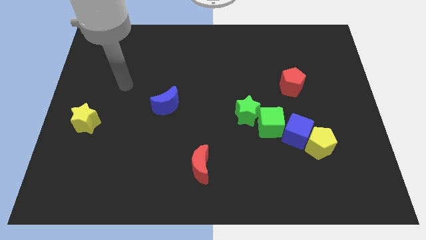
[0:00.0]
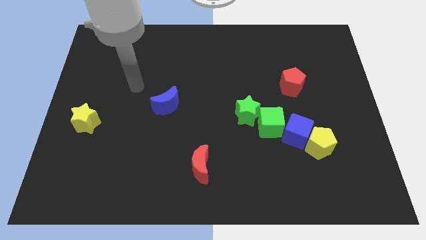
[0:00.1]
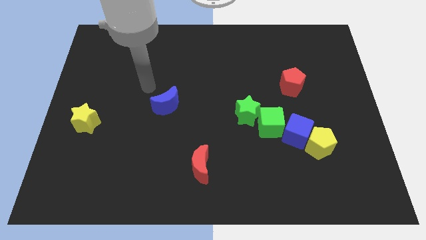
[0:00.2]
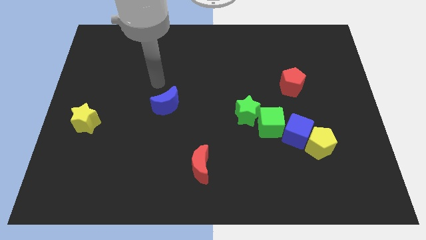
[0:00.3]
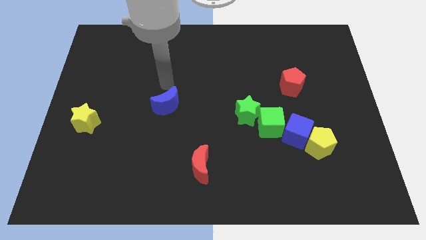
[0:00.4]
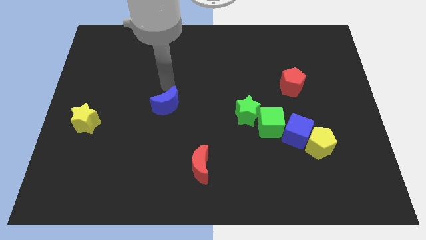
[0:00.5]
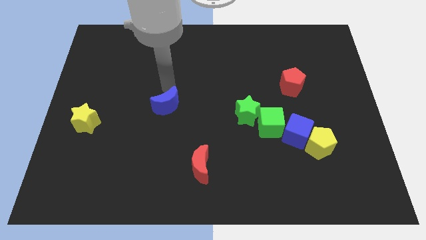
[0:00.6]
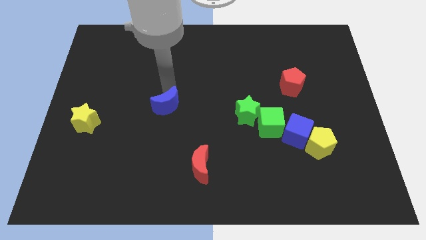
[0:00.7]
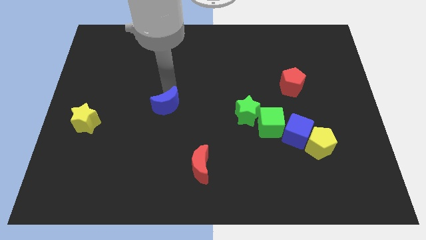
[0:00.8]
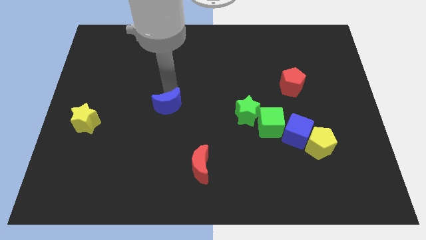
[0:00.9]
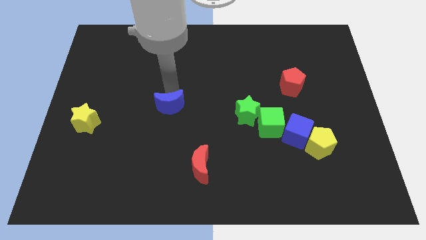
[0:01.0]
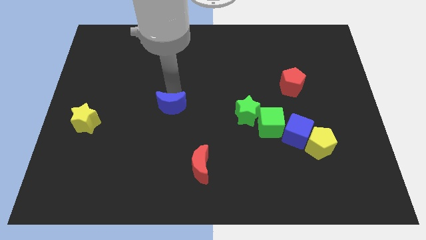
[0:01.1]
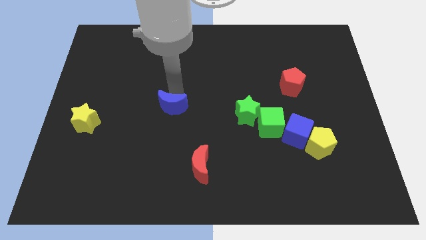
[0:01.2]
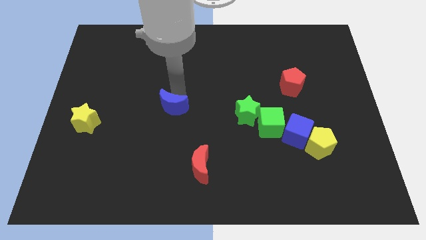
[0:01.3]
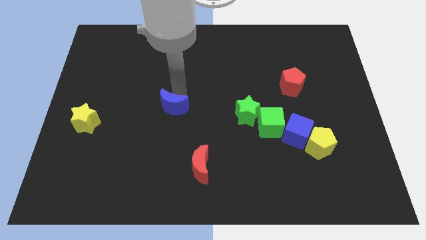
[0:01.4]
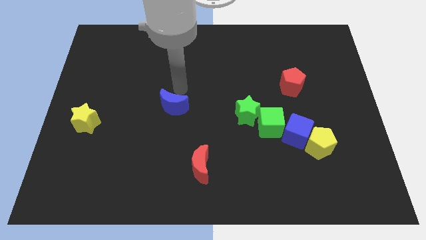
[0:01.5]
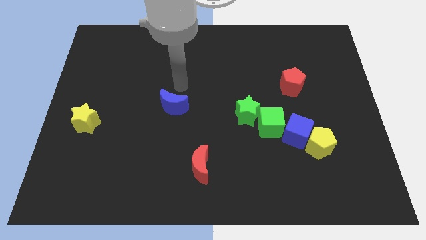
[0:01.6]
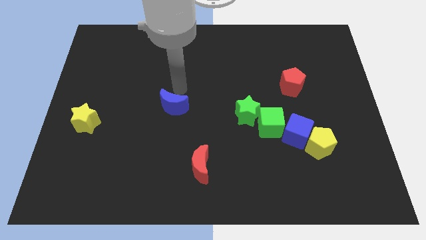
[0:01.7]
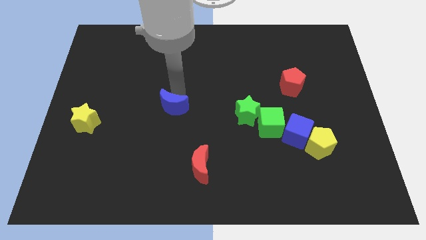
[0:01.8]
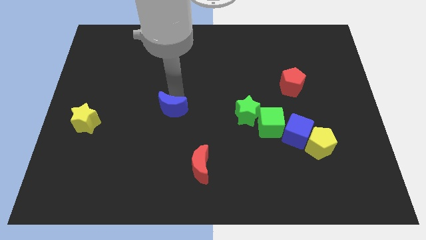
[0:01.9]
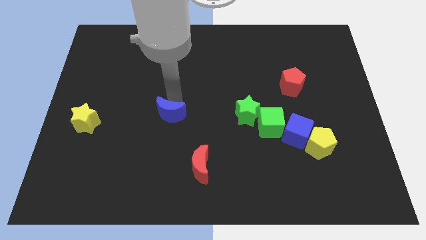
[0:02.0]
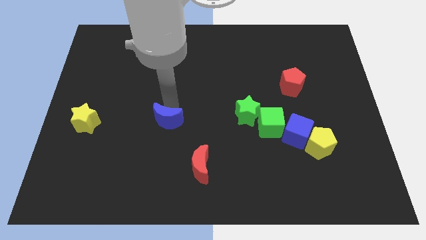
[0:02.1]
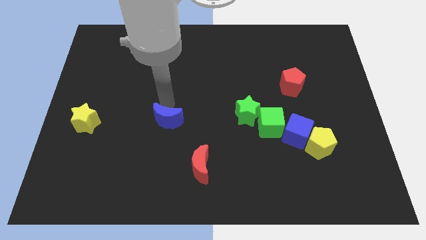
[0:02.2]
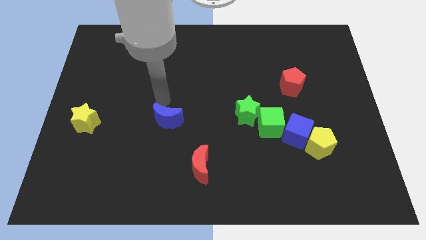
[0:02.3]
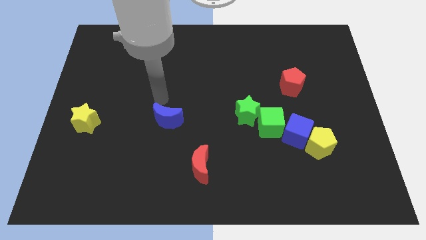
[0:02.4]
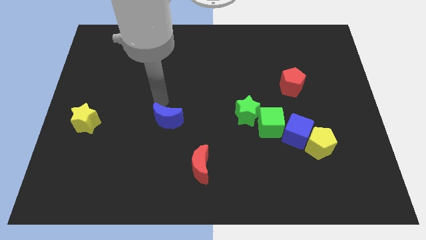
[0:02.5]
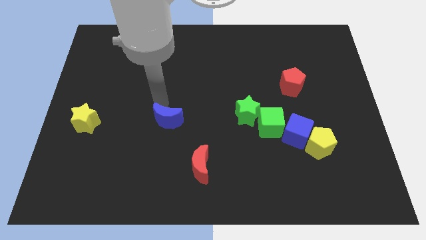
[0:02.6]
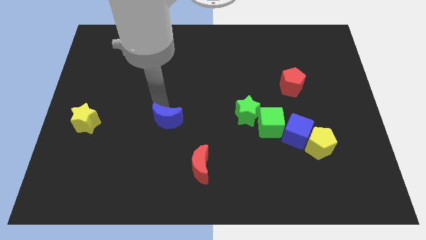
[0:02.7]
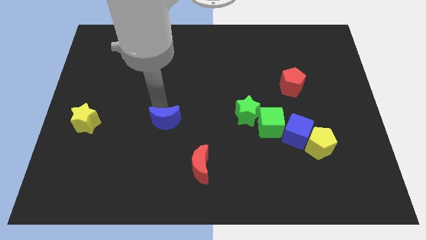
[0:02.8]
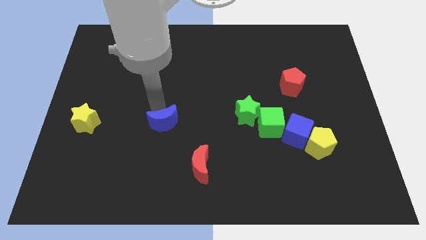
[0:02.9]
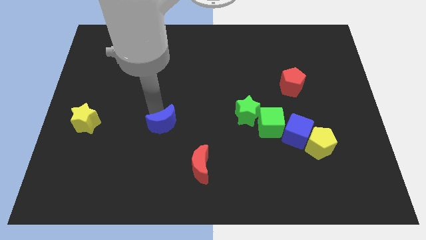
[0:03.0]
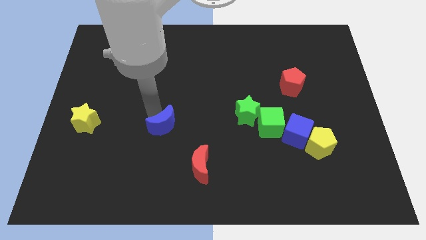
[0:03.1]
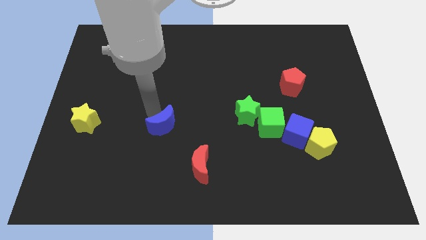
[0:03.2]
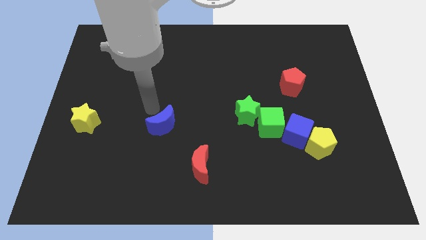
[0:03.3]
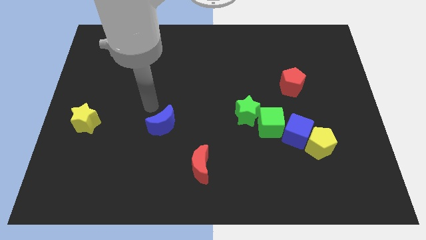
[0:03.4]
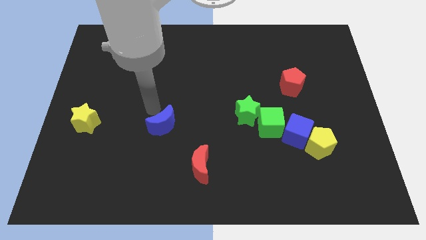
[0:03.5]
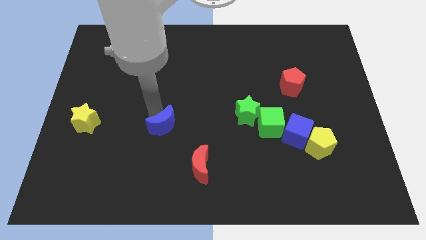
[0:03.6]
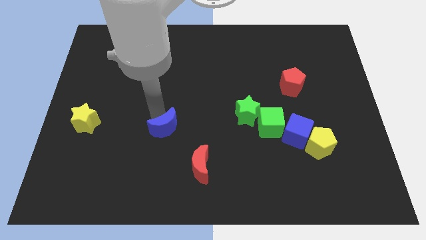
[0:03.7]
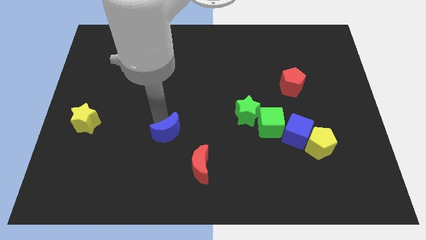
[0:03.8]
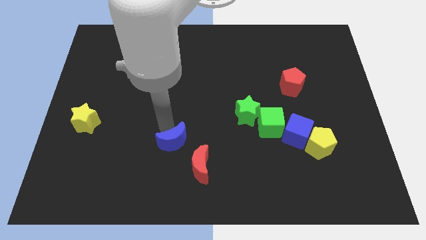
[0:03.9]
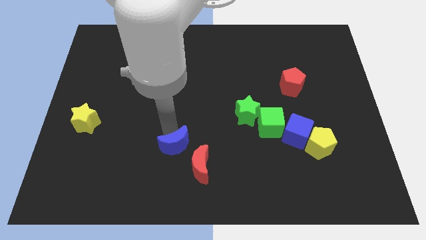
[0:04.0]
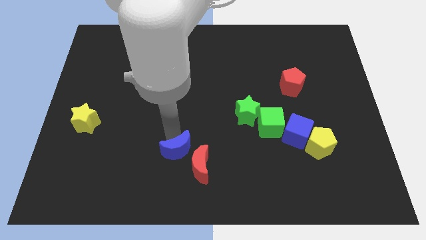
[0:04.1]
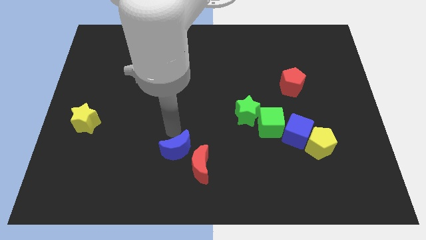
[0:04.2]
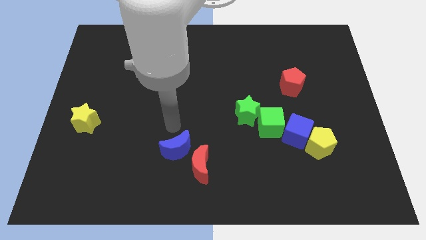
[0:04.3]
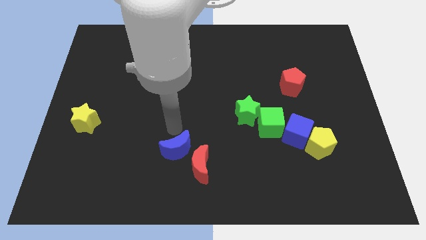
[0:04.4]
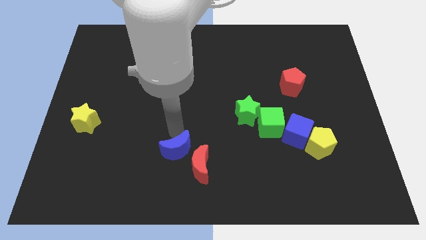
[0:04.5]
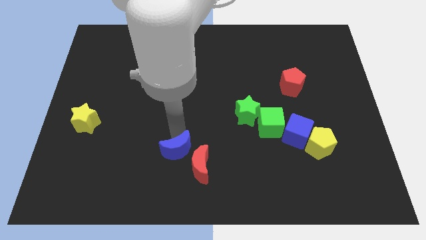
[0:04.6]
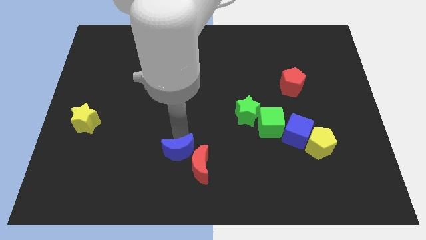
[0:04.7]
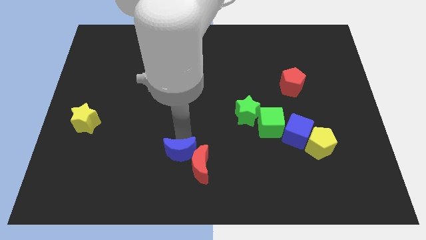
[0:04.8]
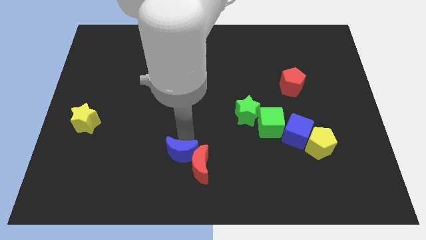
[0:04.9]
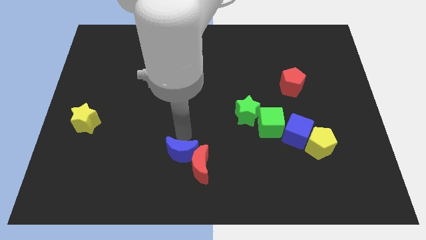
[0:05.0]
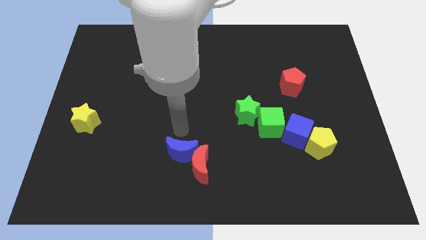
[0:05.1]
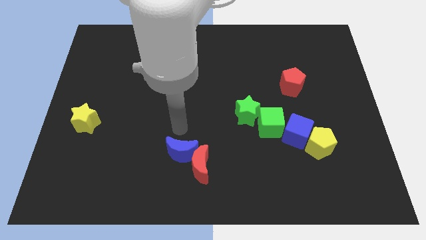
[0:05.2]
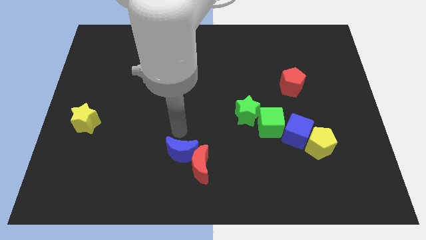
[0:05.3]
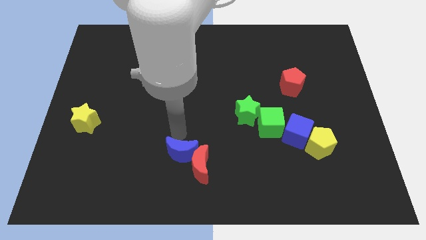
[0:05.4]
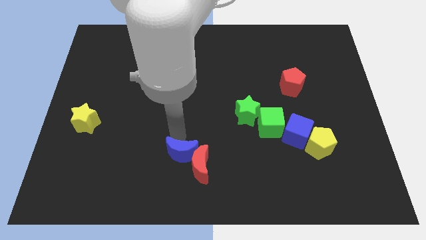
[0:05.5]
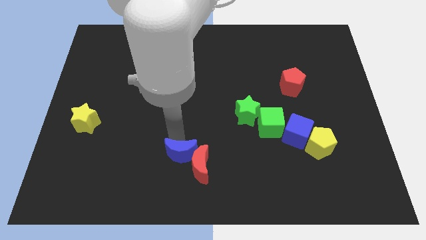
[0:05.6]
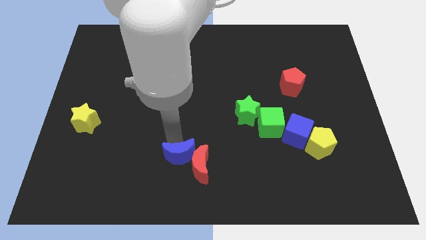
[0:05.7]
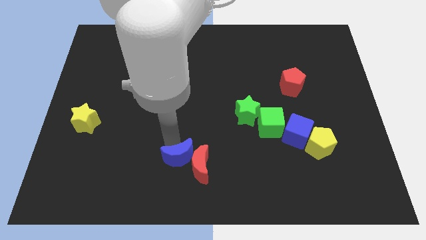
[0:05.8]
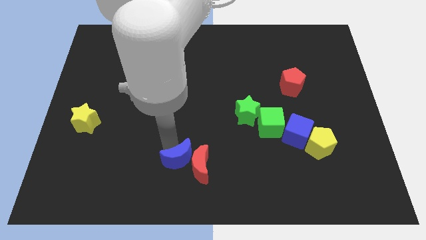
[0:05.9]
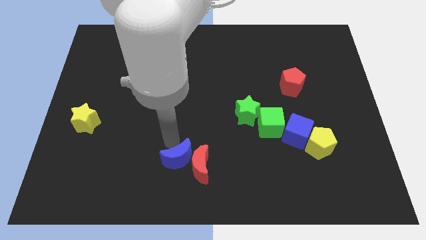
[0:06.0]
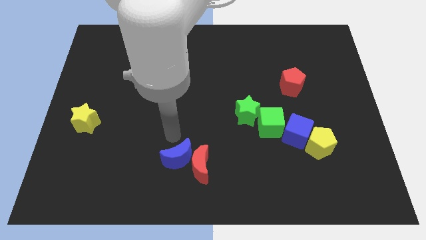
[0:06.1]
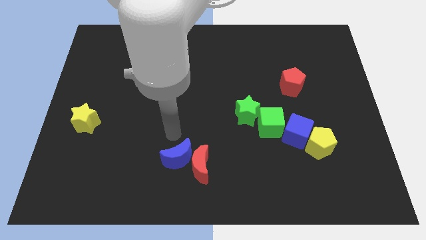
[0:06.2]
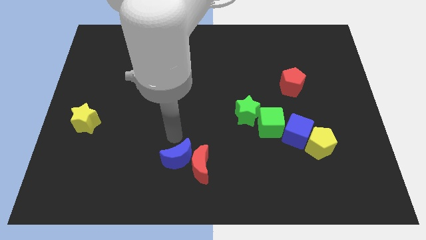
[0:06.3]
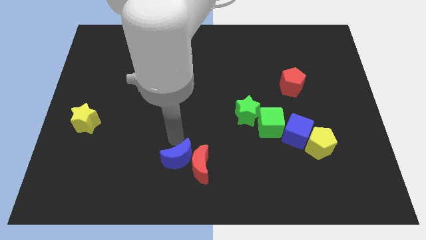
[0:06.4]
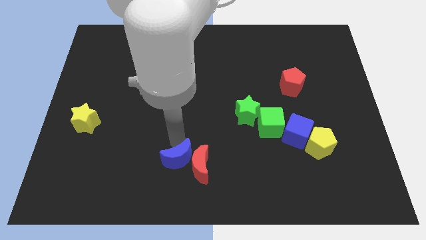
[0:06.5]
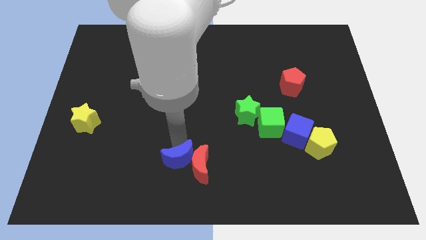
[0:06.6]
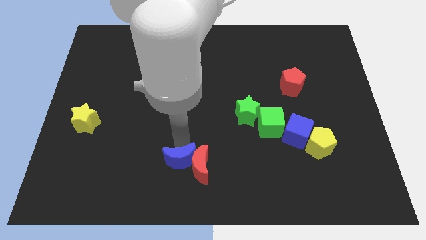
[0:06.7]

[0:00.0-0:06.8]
move the blue moon to the bottom side
